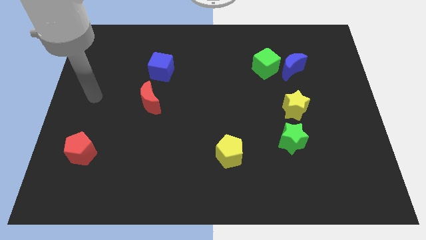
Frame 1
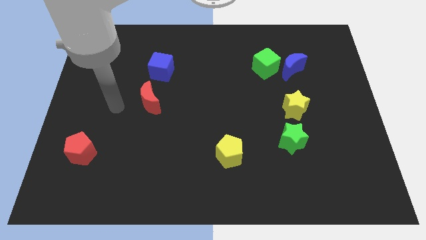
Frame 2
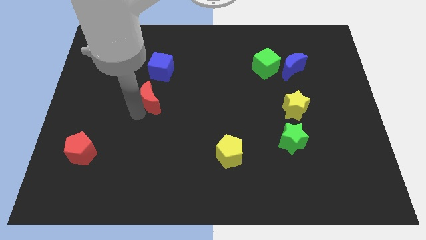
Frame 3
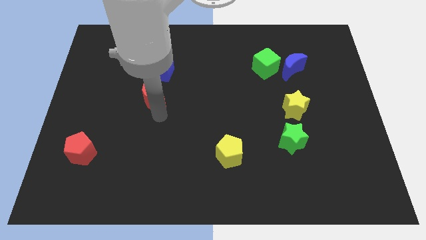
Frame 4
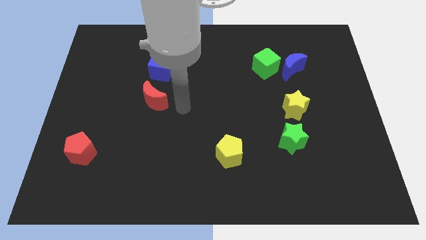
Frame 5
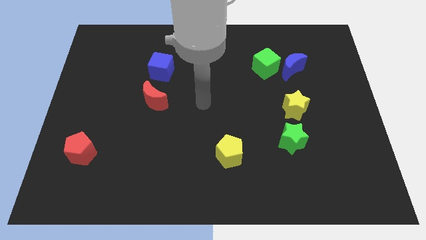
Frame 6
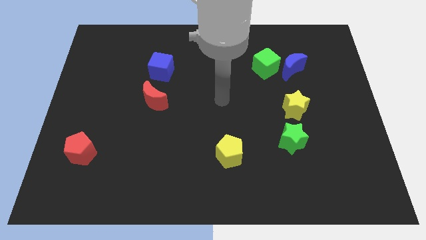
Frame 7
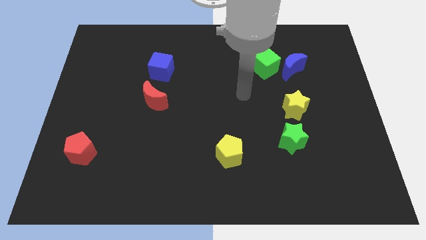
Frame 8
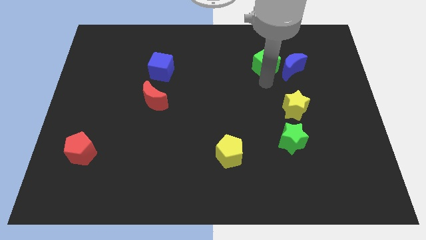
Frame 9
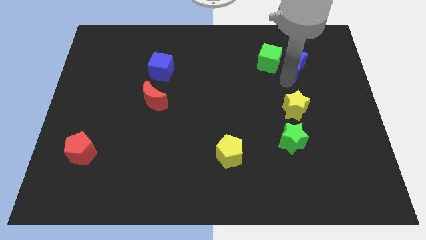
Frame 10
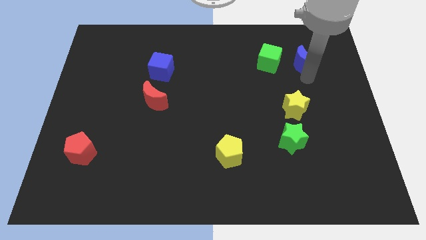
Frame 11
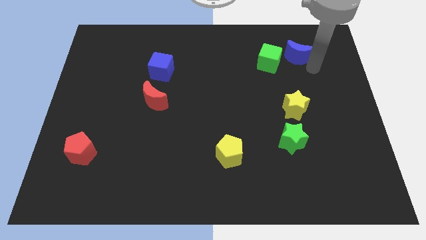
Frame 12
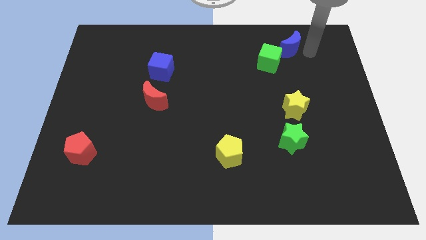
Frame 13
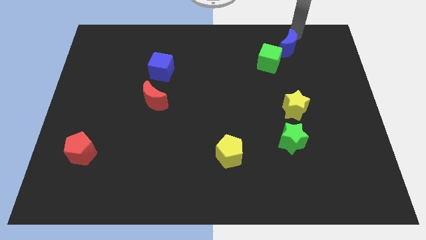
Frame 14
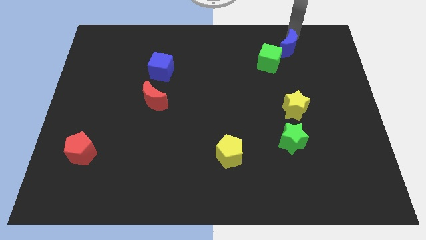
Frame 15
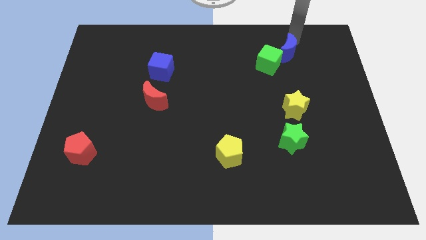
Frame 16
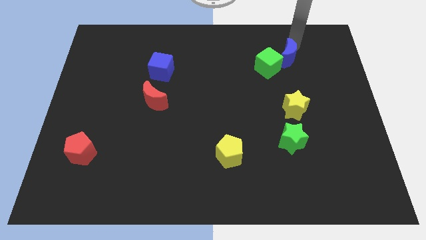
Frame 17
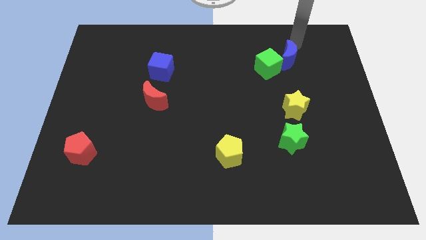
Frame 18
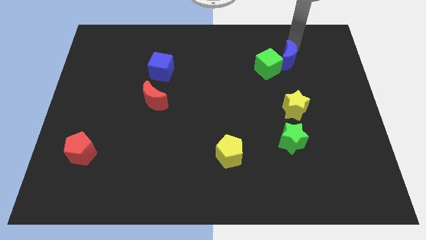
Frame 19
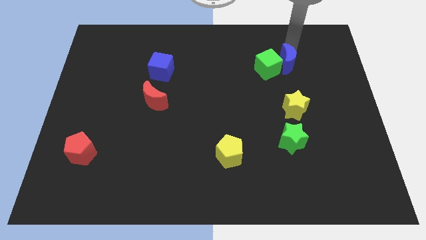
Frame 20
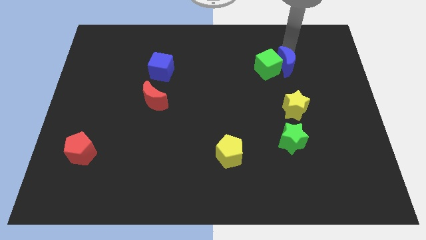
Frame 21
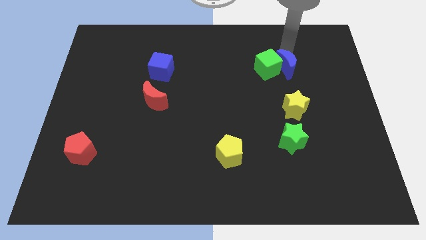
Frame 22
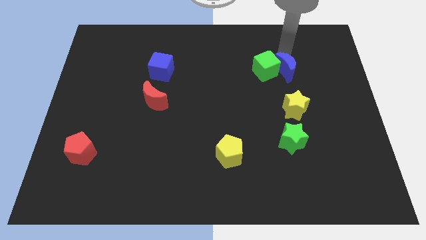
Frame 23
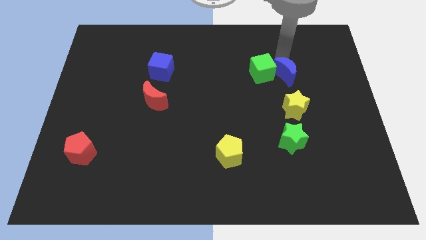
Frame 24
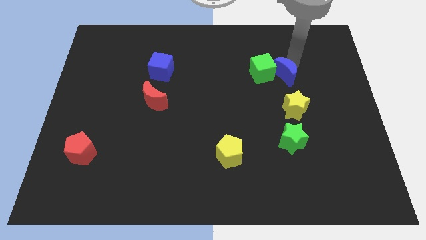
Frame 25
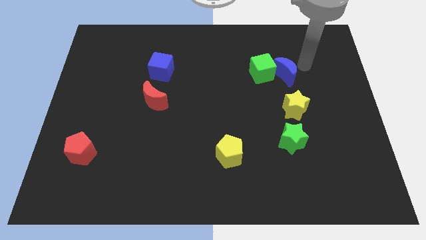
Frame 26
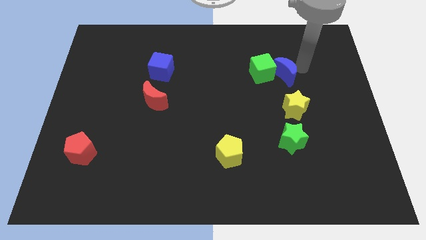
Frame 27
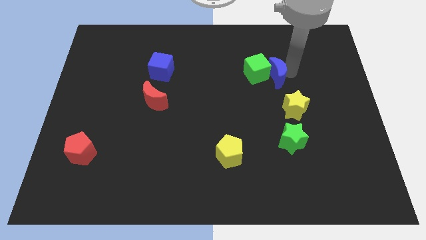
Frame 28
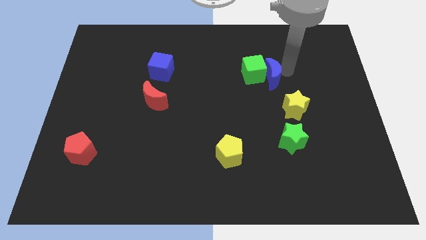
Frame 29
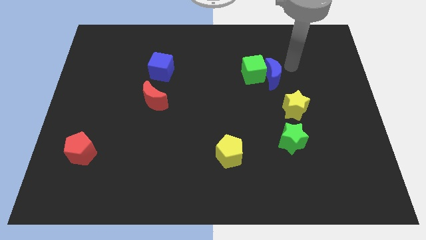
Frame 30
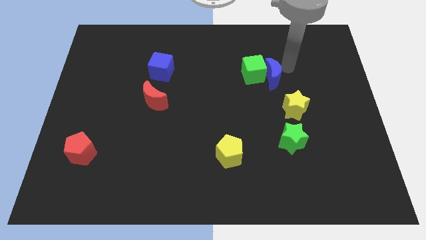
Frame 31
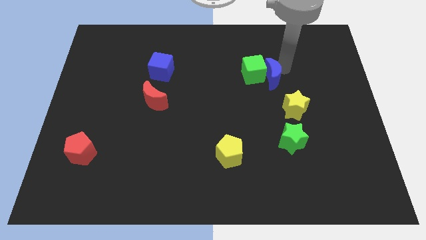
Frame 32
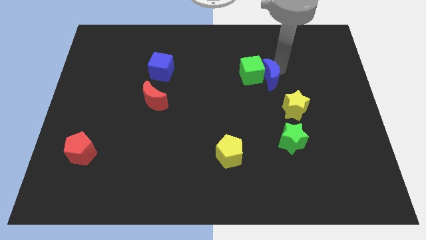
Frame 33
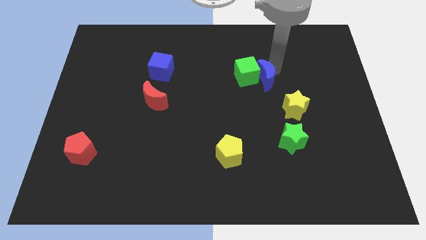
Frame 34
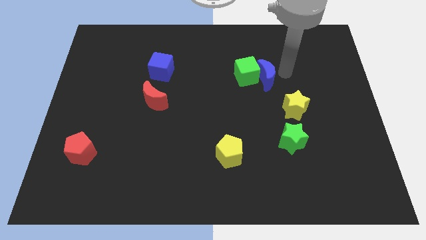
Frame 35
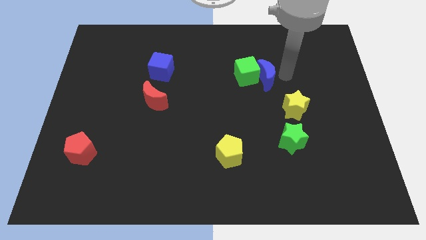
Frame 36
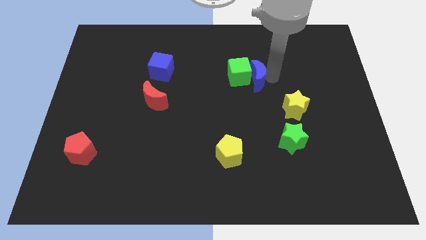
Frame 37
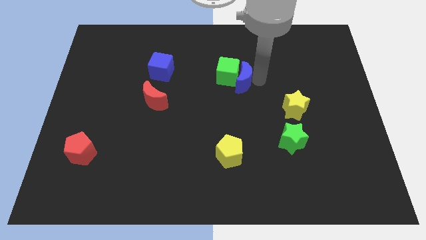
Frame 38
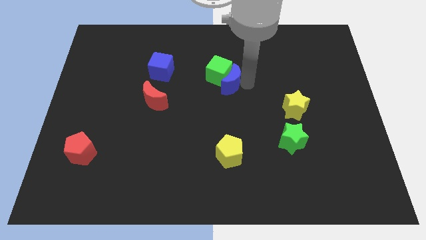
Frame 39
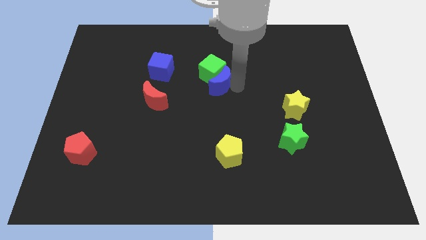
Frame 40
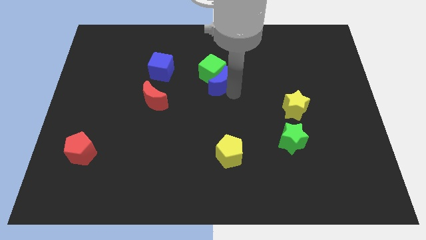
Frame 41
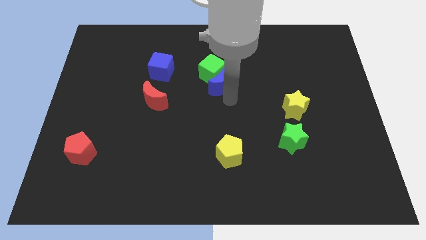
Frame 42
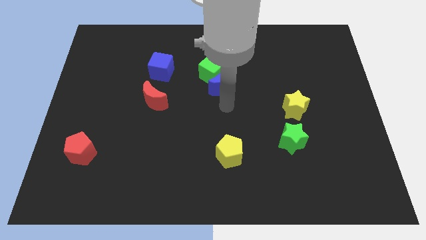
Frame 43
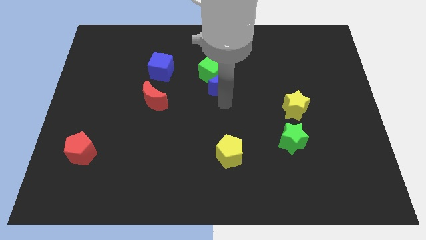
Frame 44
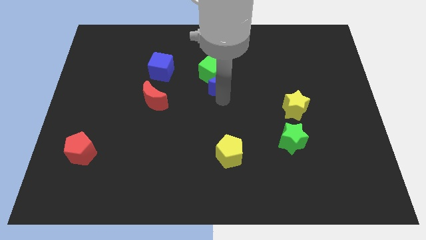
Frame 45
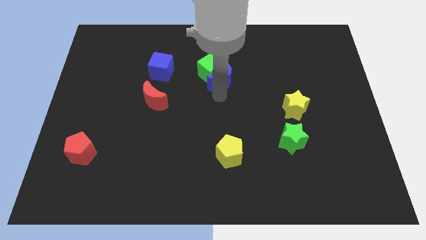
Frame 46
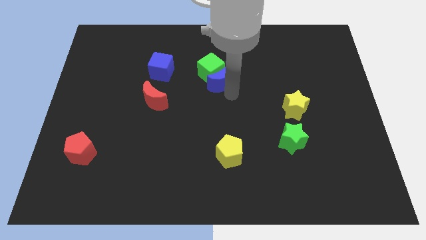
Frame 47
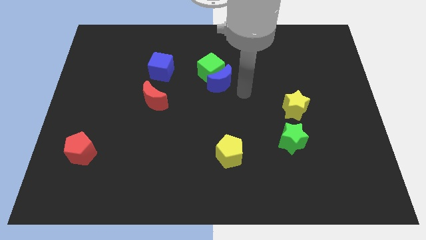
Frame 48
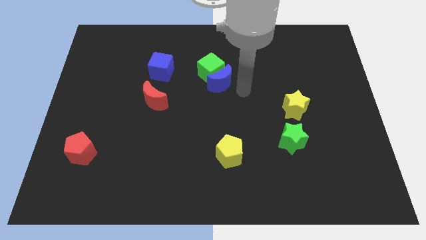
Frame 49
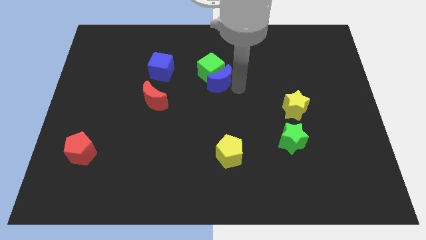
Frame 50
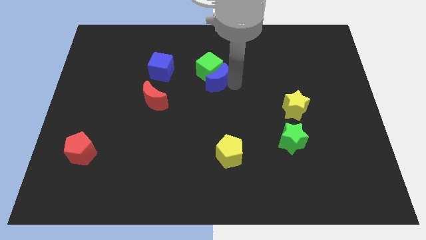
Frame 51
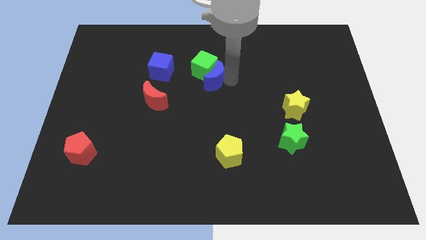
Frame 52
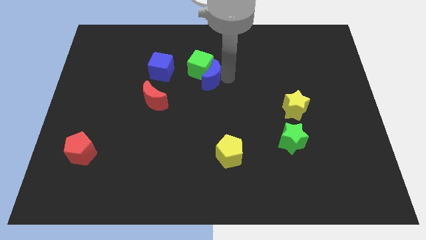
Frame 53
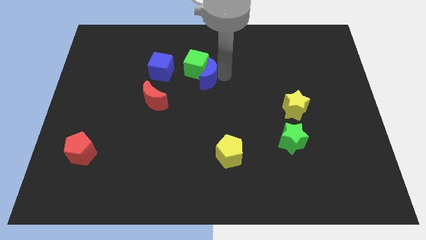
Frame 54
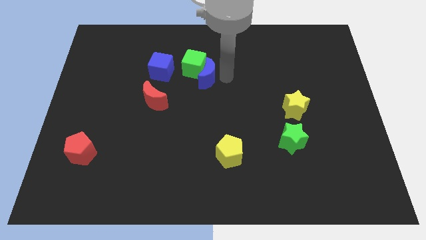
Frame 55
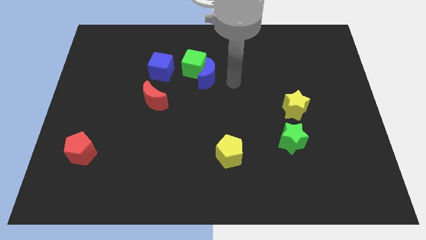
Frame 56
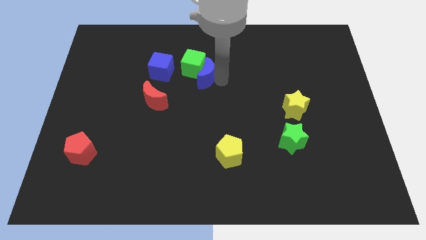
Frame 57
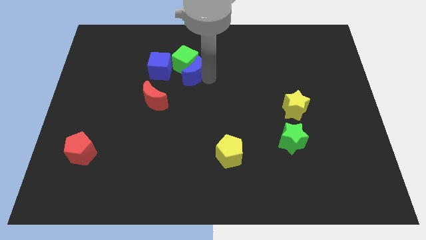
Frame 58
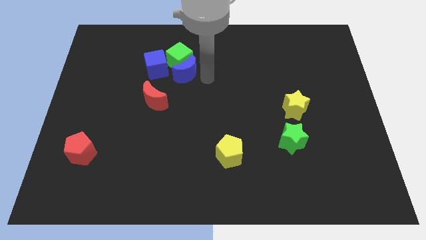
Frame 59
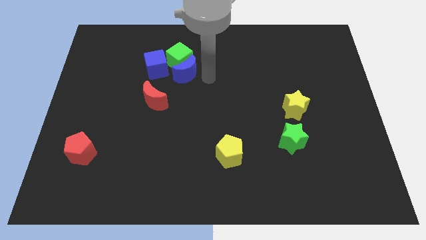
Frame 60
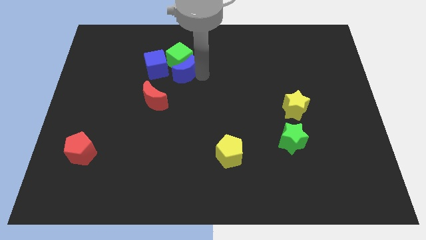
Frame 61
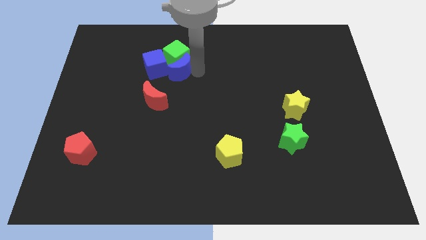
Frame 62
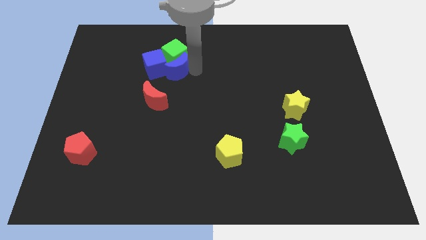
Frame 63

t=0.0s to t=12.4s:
push the blue moon to the blue cube
